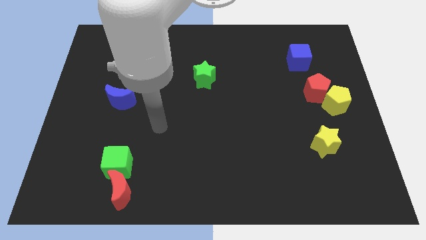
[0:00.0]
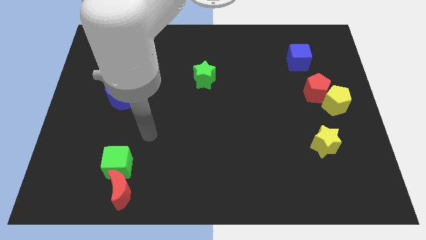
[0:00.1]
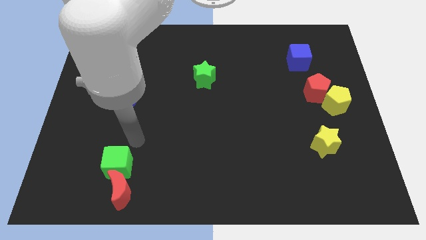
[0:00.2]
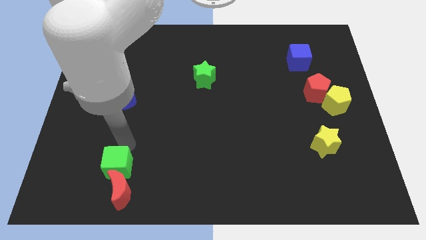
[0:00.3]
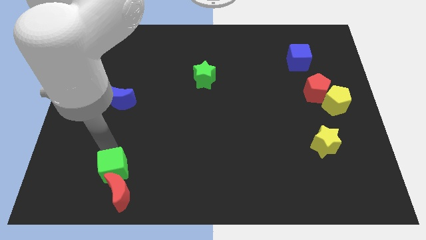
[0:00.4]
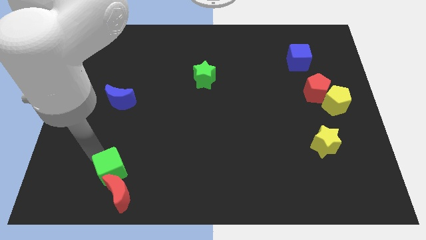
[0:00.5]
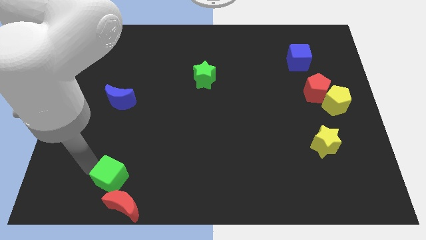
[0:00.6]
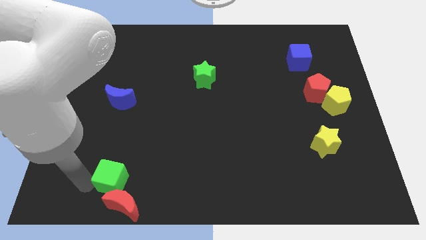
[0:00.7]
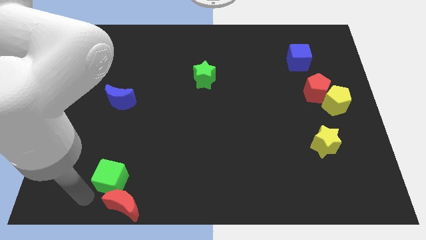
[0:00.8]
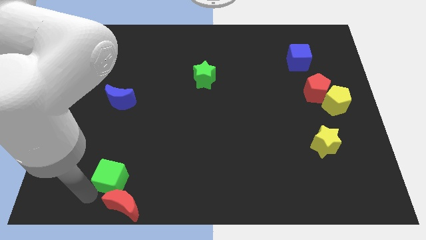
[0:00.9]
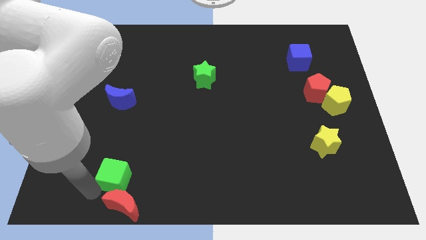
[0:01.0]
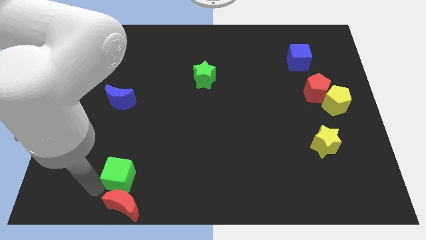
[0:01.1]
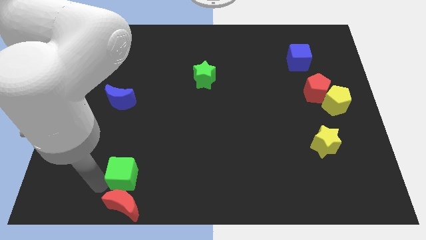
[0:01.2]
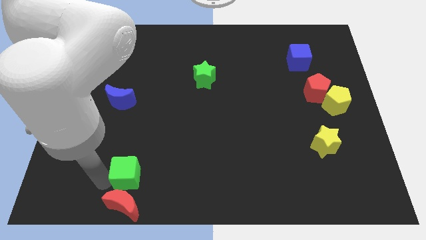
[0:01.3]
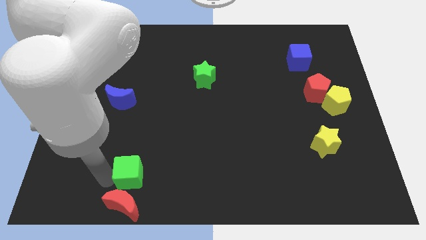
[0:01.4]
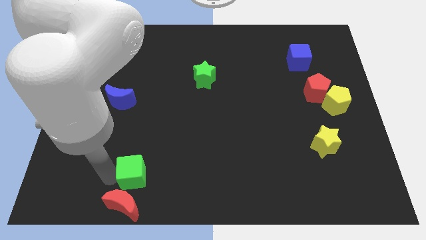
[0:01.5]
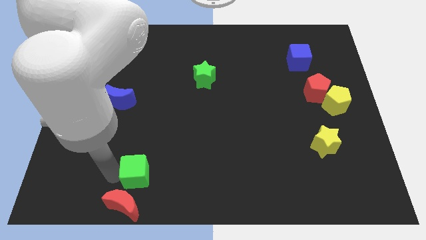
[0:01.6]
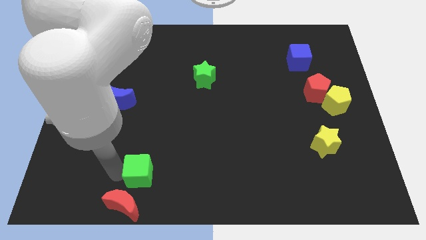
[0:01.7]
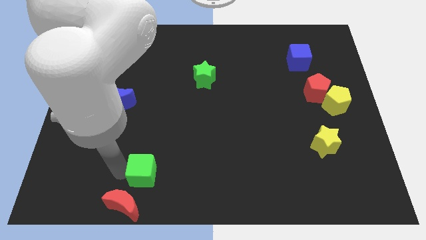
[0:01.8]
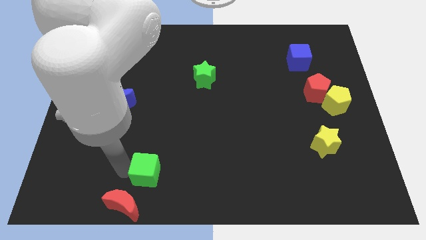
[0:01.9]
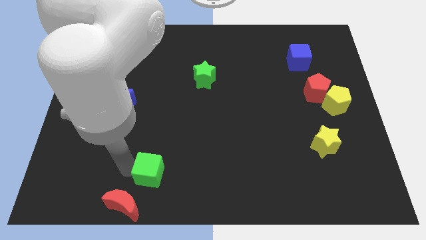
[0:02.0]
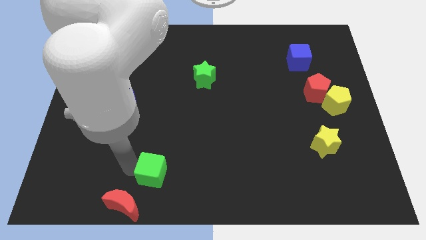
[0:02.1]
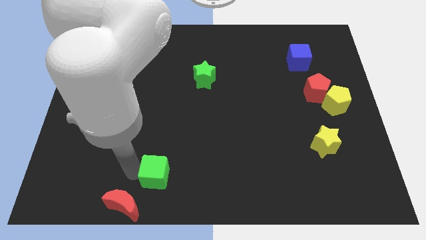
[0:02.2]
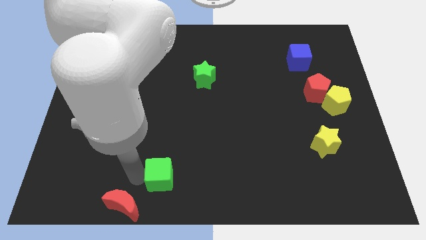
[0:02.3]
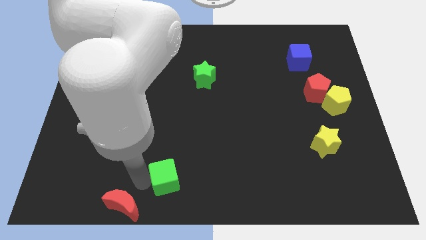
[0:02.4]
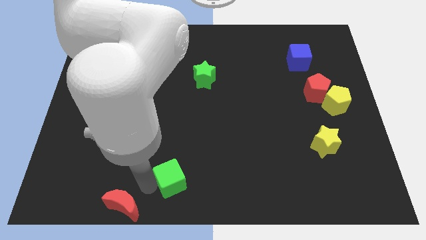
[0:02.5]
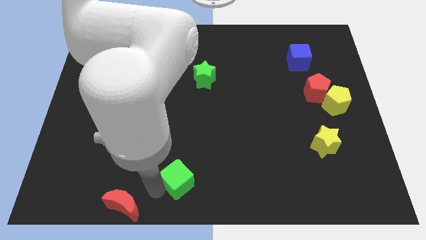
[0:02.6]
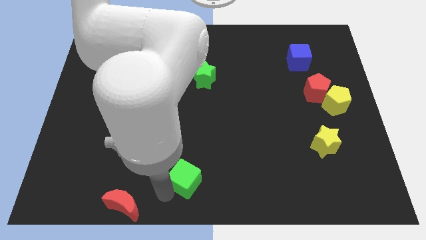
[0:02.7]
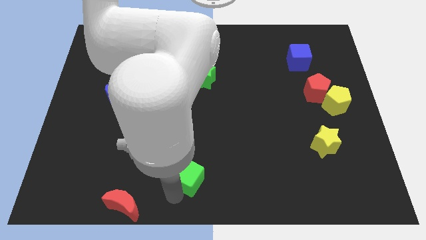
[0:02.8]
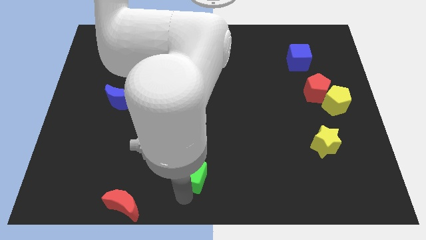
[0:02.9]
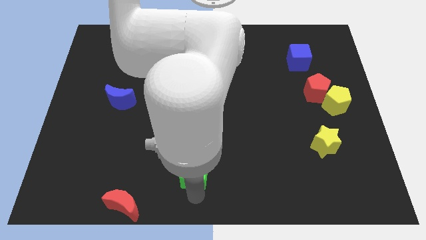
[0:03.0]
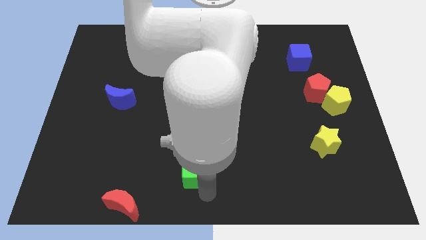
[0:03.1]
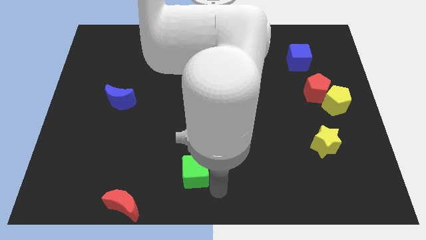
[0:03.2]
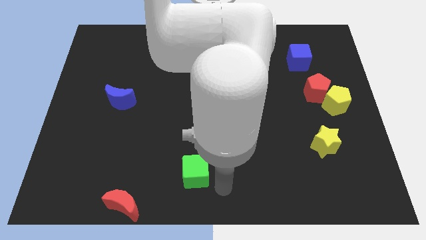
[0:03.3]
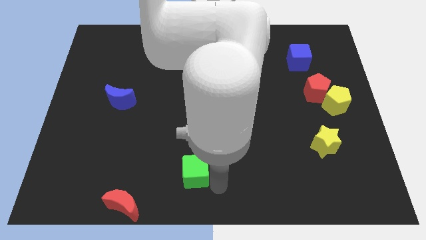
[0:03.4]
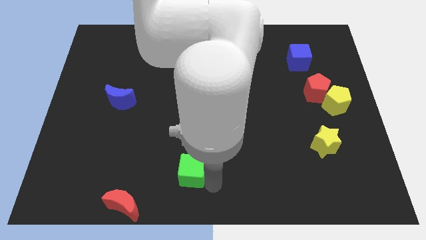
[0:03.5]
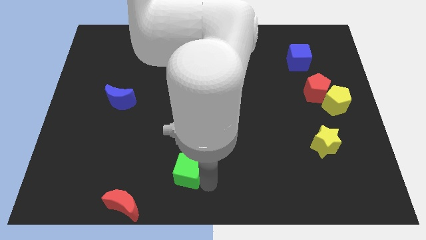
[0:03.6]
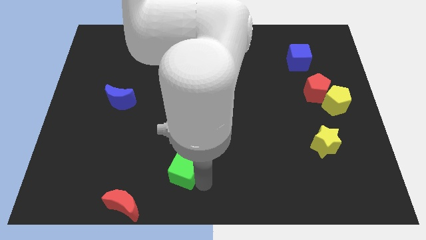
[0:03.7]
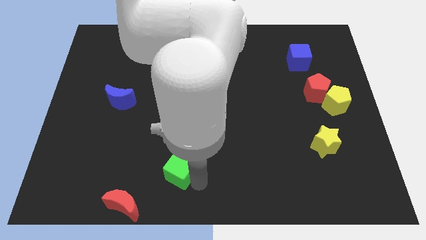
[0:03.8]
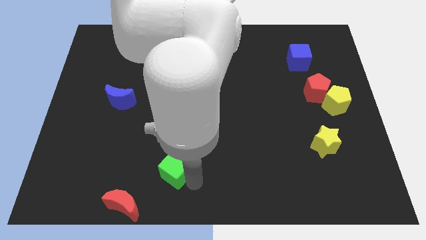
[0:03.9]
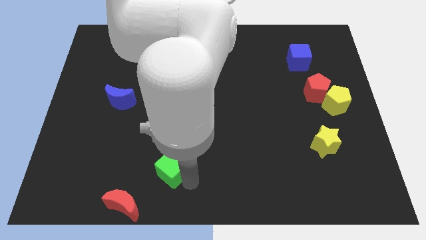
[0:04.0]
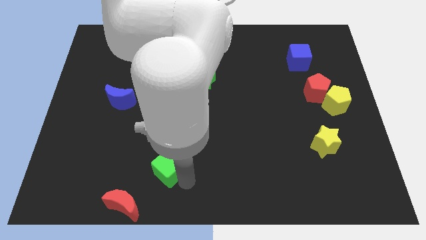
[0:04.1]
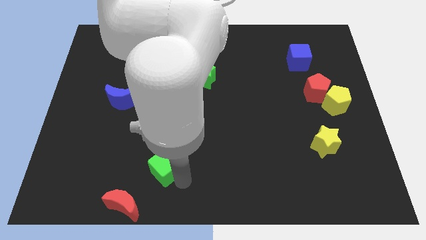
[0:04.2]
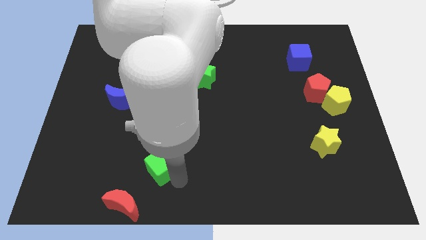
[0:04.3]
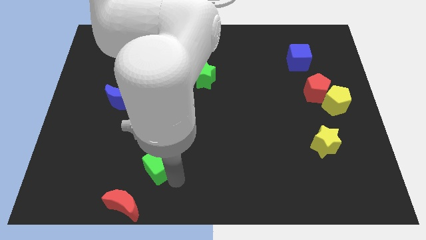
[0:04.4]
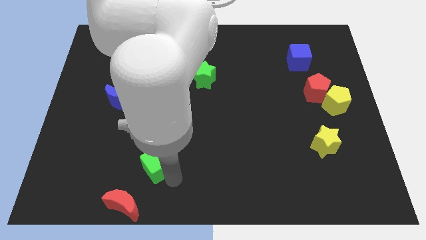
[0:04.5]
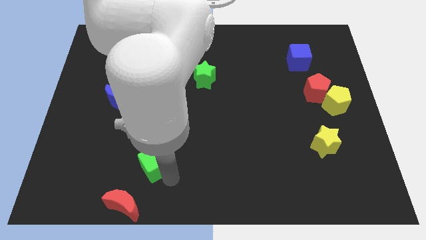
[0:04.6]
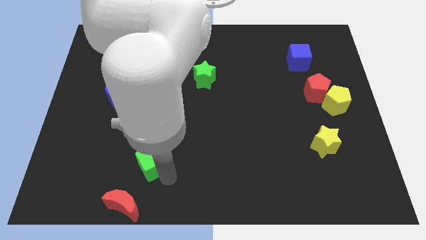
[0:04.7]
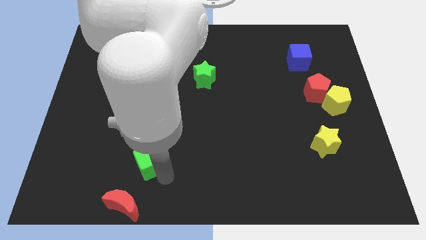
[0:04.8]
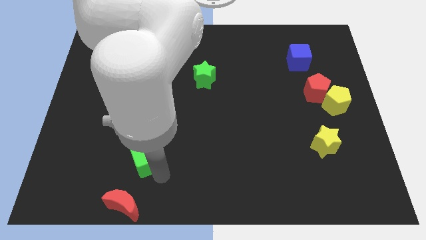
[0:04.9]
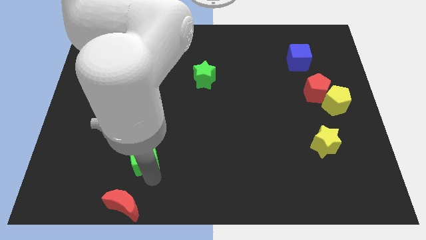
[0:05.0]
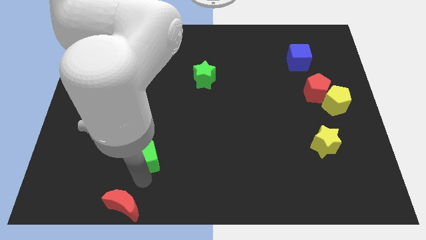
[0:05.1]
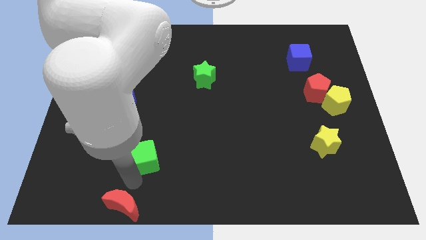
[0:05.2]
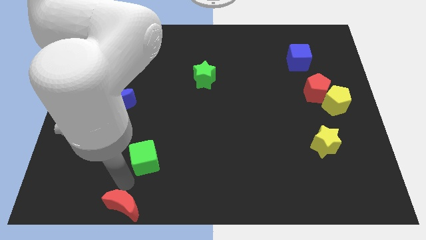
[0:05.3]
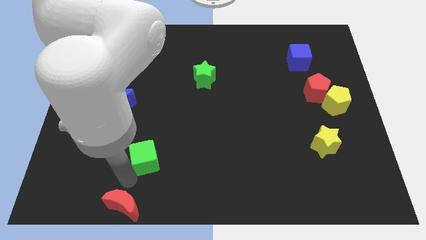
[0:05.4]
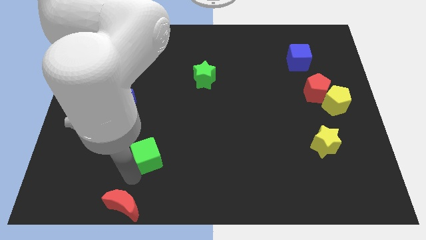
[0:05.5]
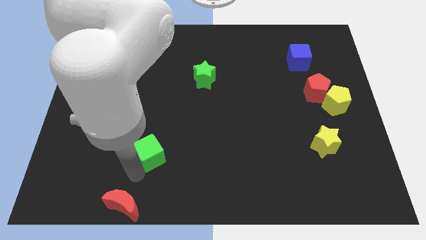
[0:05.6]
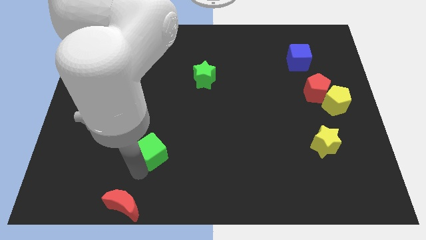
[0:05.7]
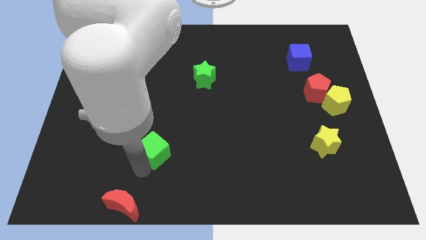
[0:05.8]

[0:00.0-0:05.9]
push the green cube somewhat upwards and then to the right

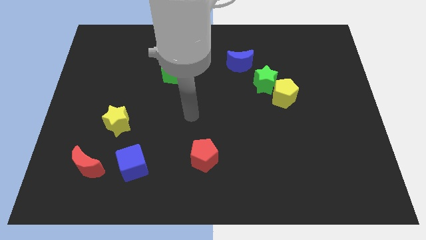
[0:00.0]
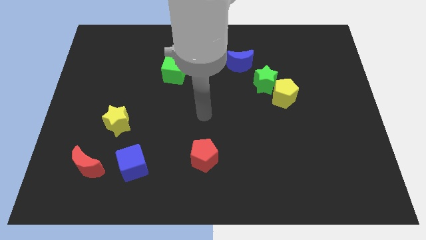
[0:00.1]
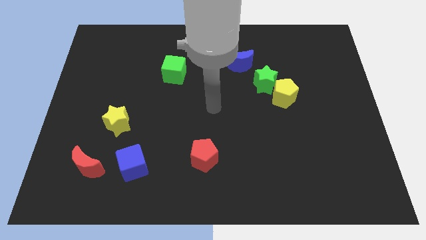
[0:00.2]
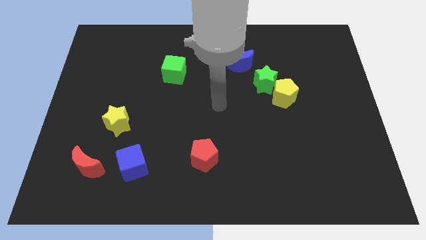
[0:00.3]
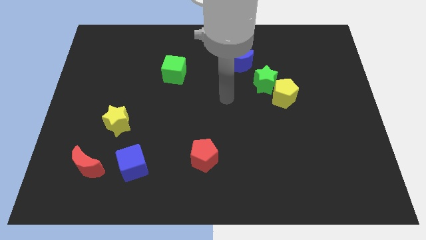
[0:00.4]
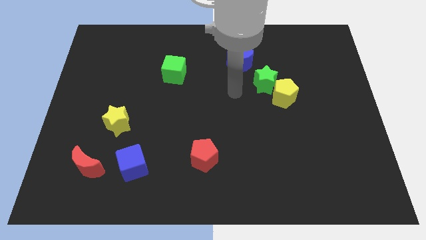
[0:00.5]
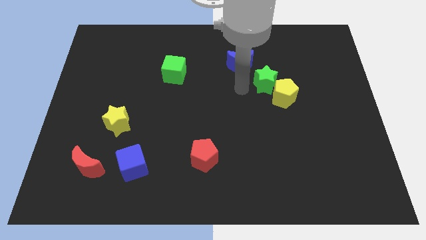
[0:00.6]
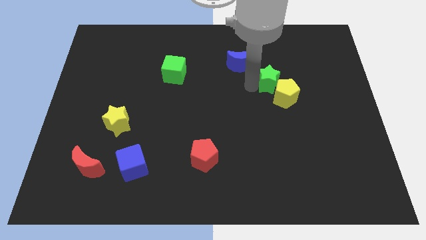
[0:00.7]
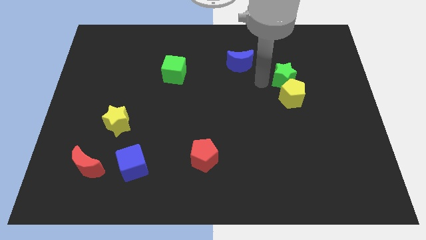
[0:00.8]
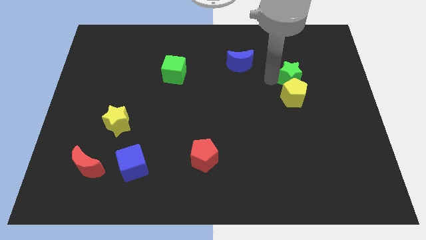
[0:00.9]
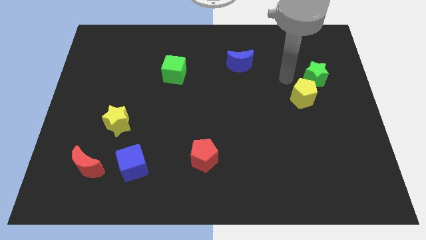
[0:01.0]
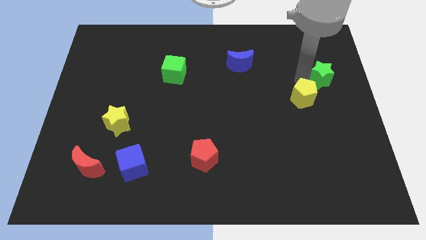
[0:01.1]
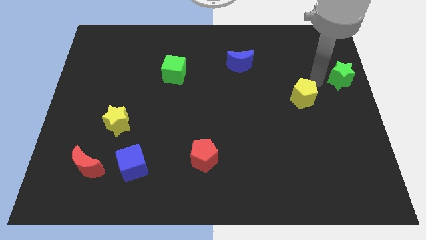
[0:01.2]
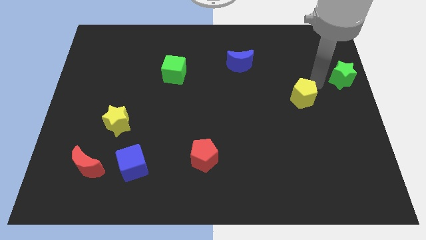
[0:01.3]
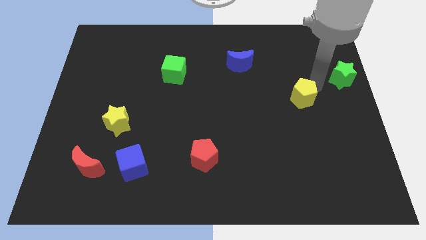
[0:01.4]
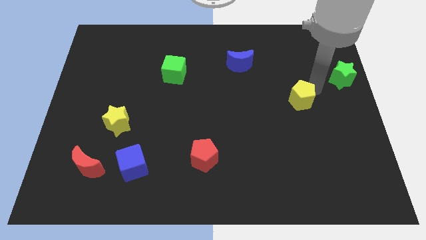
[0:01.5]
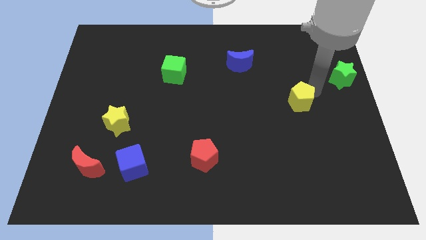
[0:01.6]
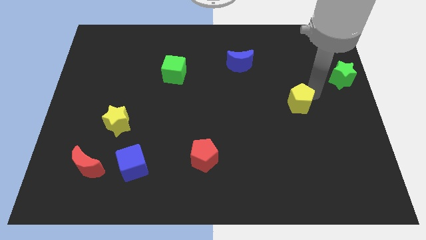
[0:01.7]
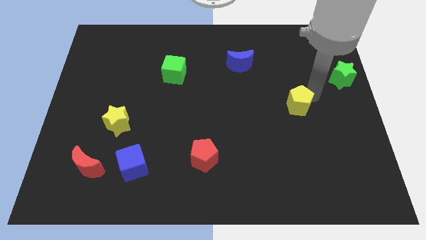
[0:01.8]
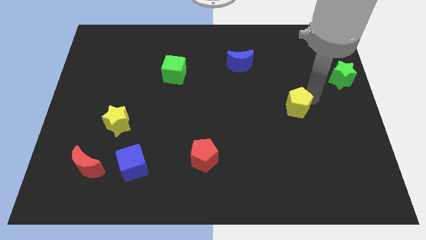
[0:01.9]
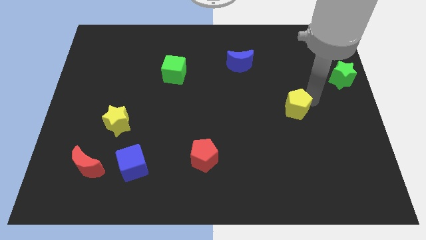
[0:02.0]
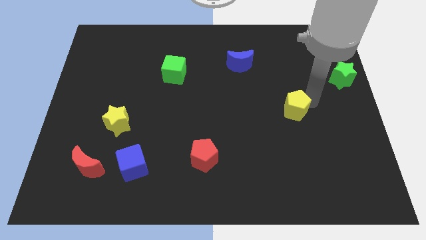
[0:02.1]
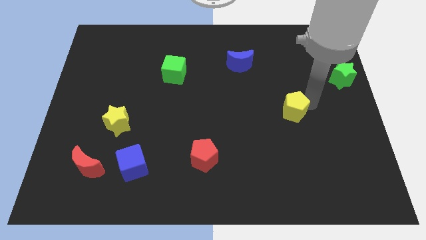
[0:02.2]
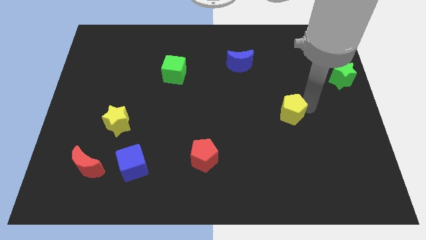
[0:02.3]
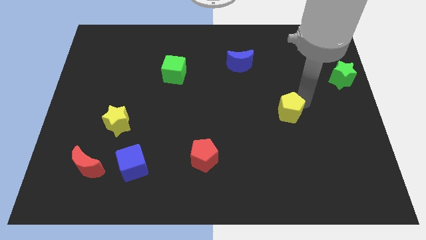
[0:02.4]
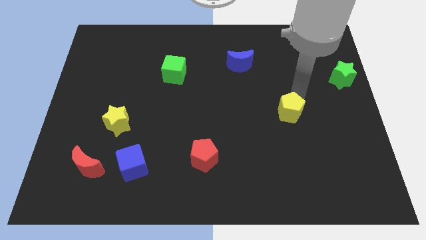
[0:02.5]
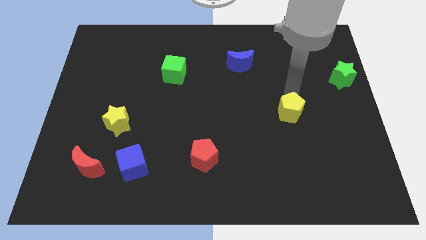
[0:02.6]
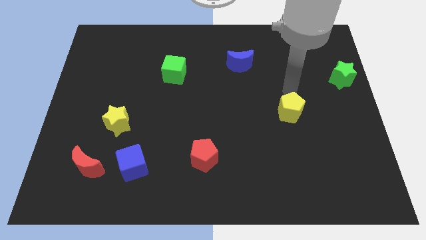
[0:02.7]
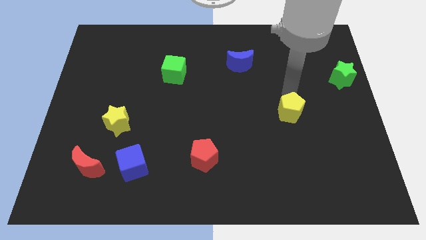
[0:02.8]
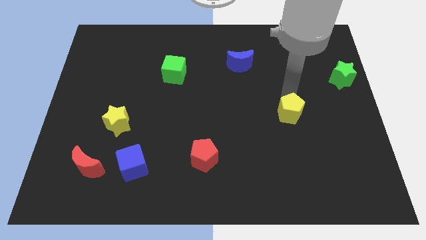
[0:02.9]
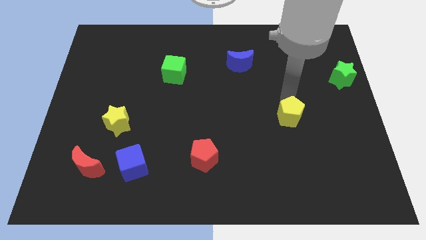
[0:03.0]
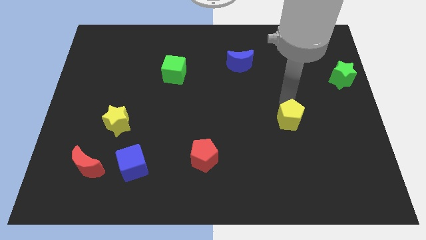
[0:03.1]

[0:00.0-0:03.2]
slightly push the yellow pentagon downwards
